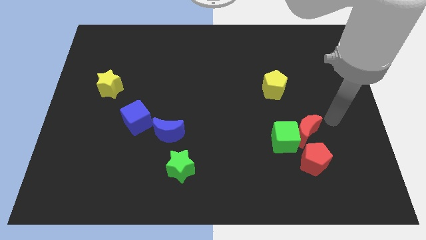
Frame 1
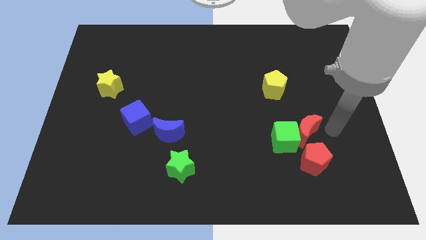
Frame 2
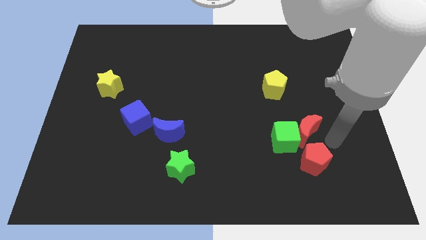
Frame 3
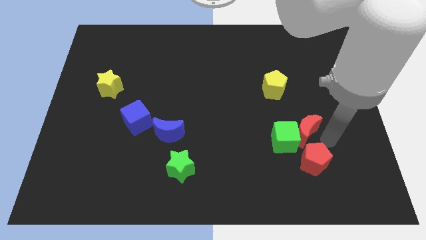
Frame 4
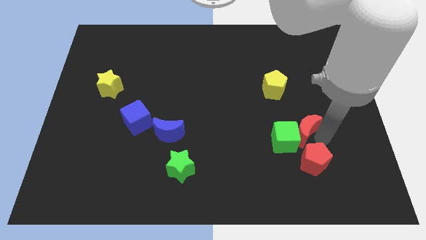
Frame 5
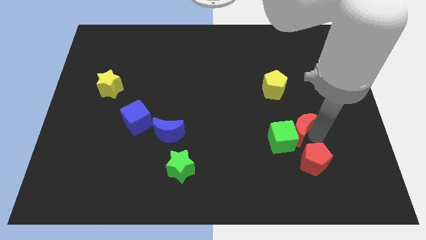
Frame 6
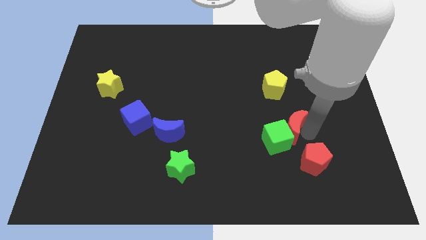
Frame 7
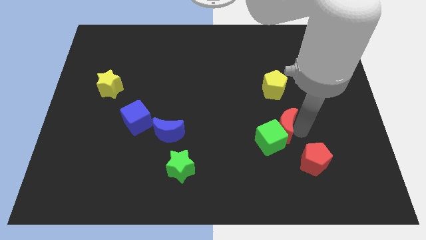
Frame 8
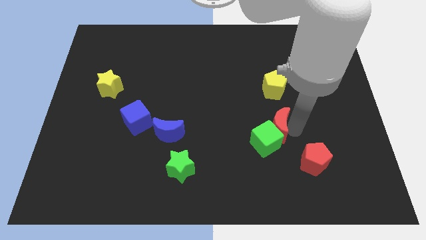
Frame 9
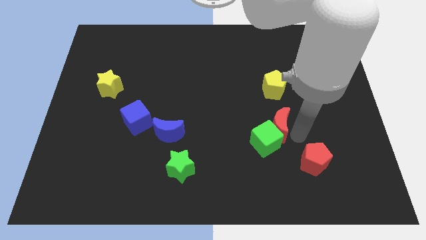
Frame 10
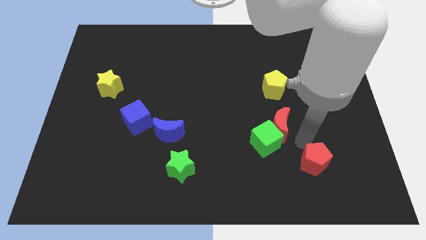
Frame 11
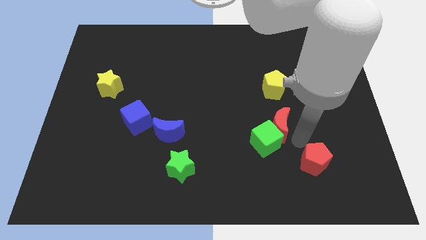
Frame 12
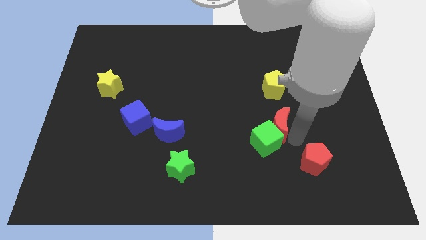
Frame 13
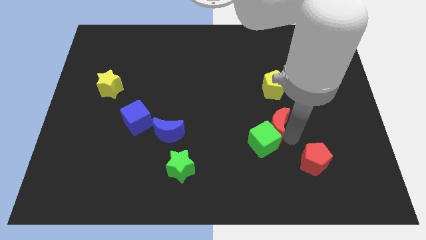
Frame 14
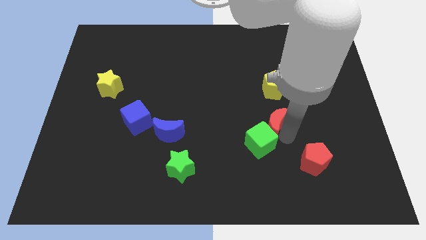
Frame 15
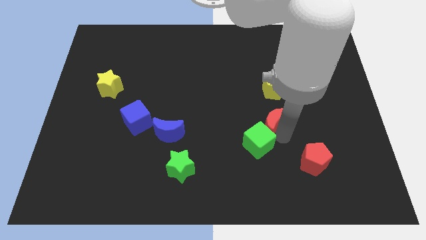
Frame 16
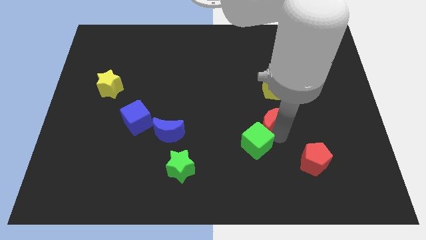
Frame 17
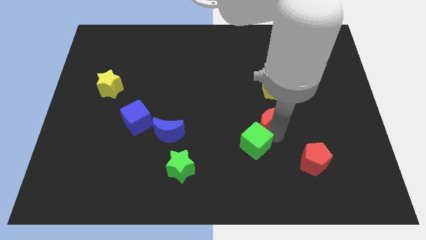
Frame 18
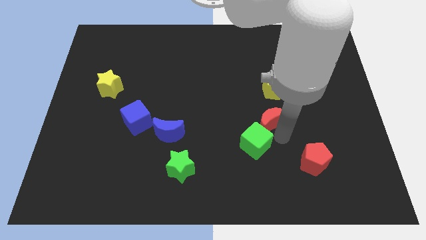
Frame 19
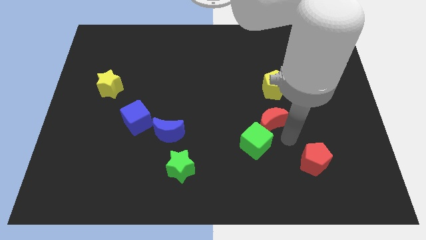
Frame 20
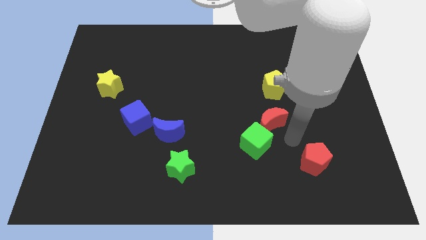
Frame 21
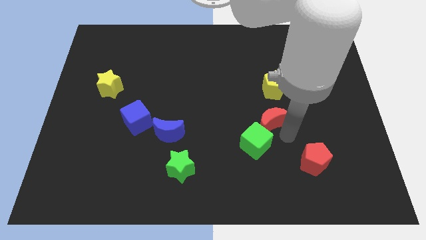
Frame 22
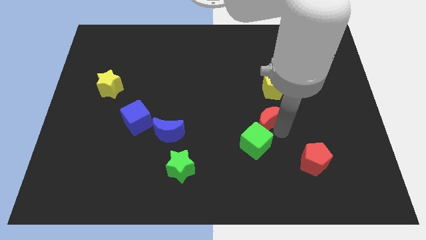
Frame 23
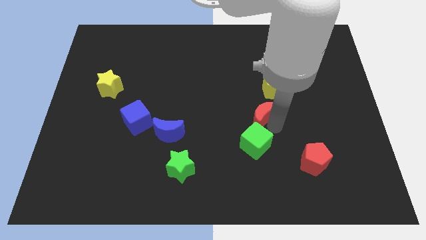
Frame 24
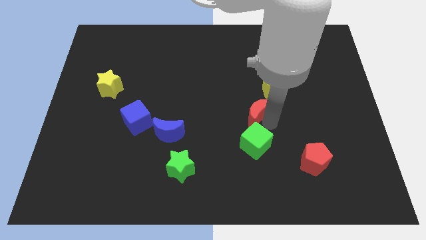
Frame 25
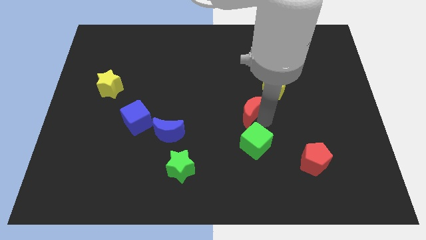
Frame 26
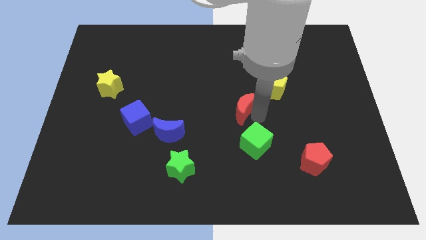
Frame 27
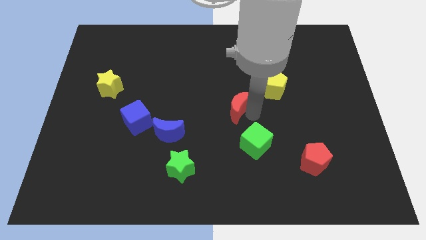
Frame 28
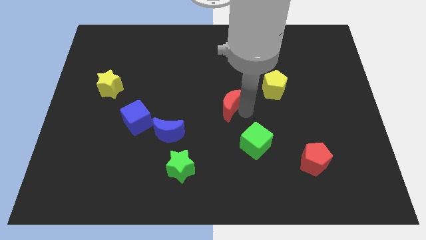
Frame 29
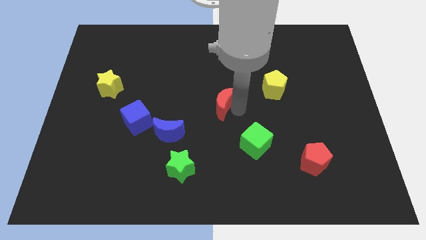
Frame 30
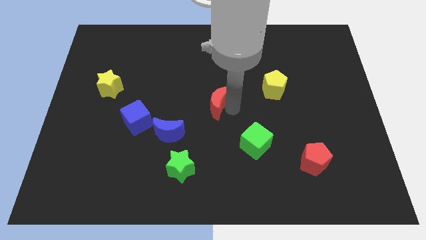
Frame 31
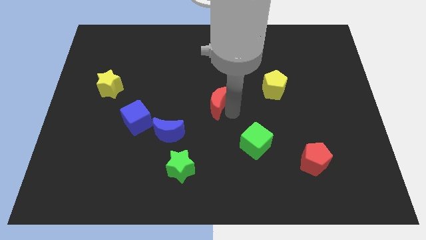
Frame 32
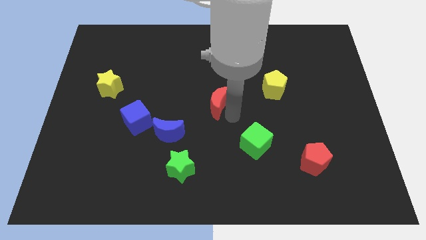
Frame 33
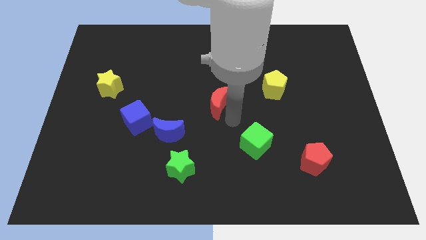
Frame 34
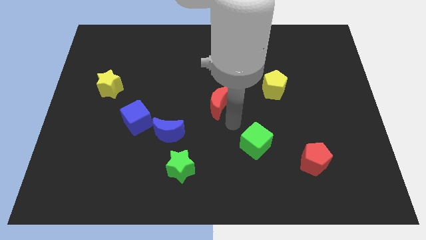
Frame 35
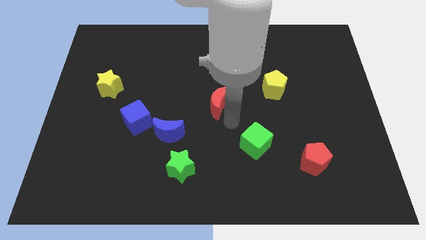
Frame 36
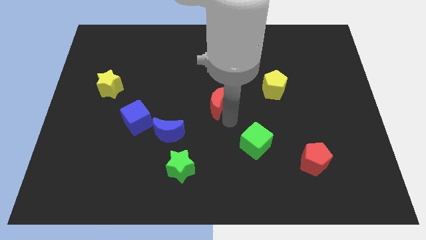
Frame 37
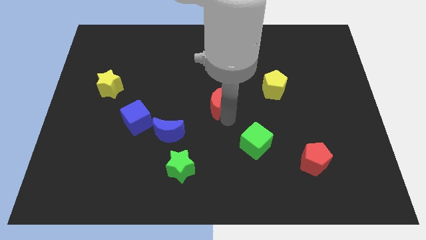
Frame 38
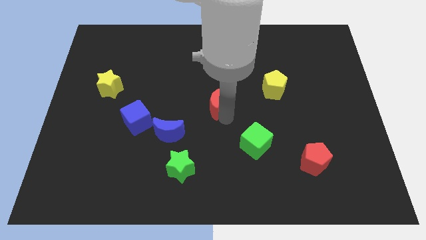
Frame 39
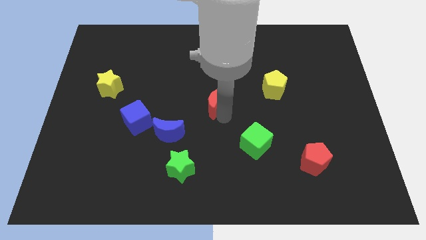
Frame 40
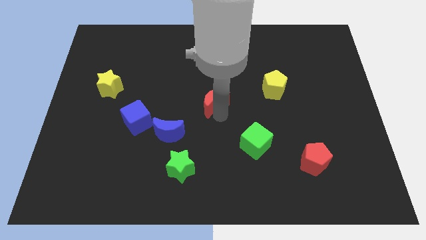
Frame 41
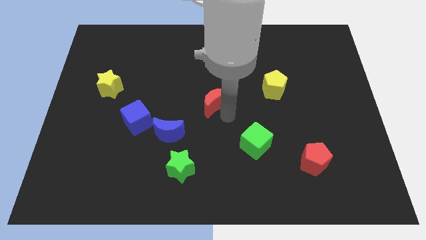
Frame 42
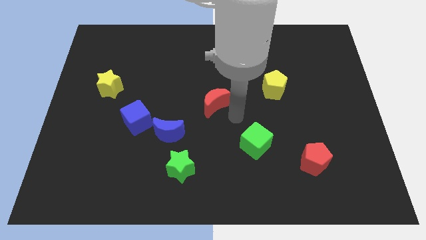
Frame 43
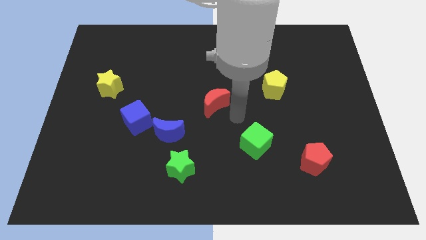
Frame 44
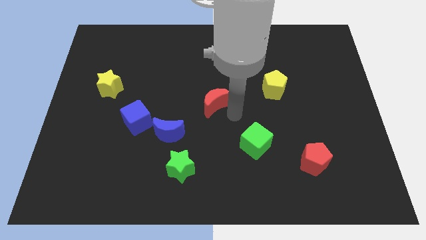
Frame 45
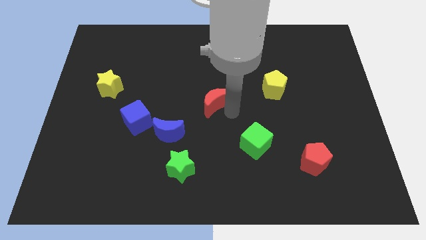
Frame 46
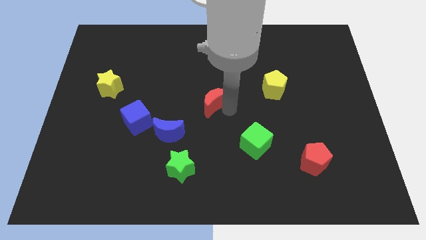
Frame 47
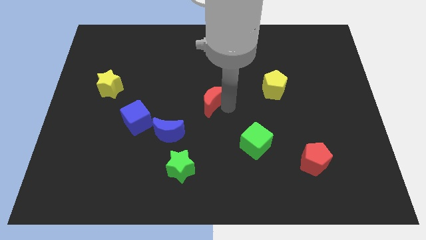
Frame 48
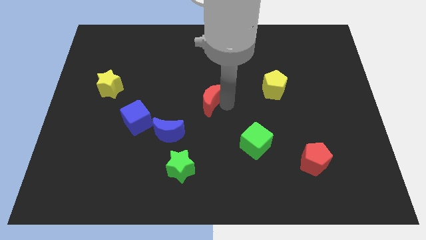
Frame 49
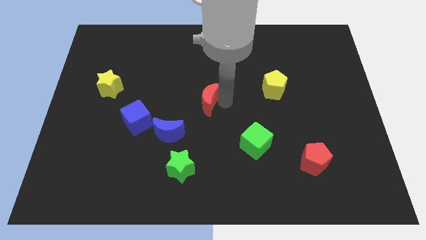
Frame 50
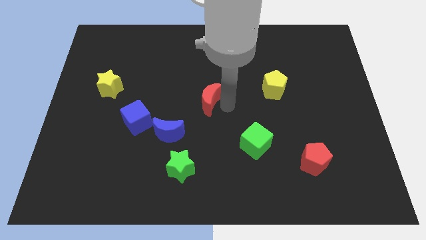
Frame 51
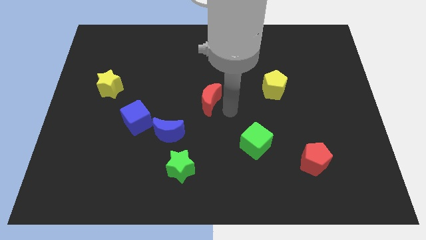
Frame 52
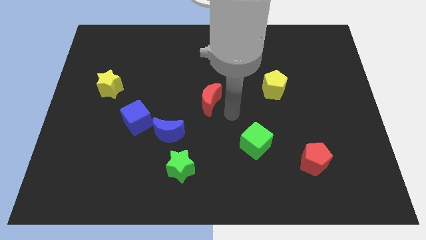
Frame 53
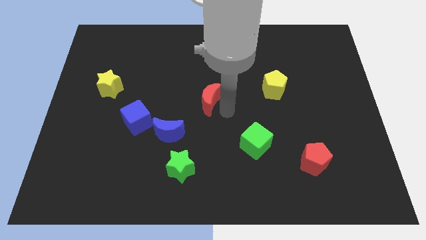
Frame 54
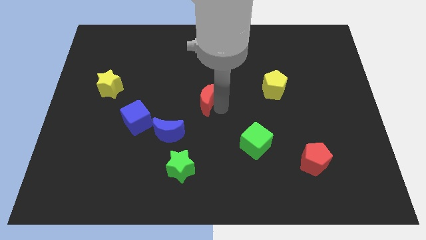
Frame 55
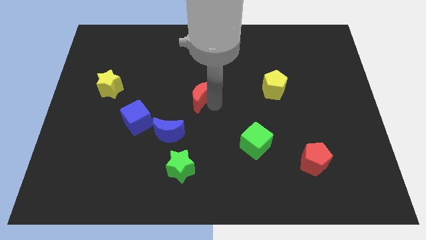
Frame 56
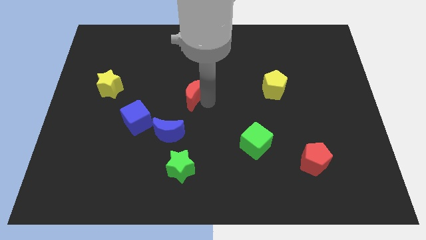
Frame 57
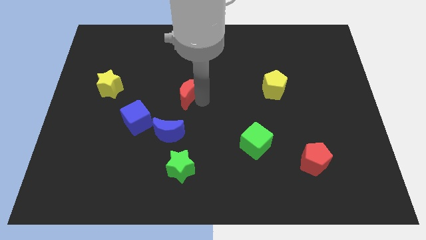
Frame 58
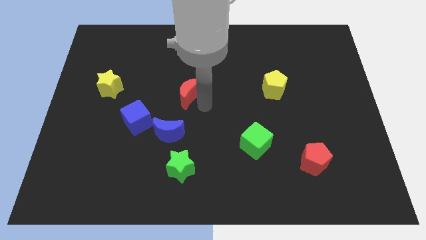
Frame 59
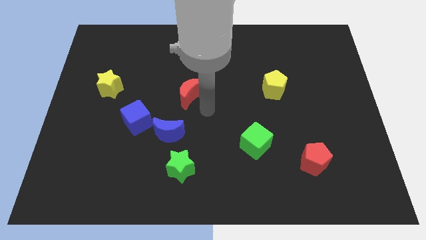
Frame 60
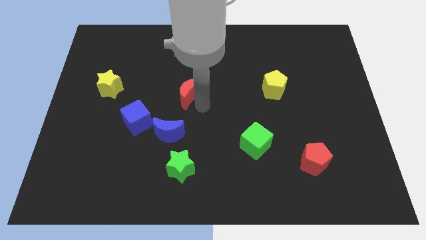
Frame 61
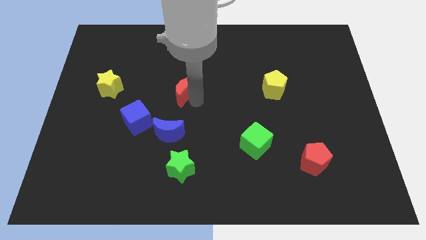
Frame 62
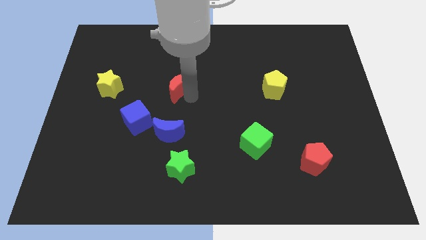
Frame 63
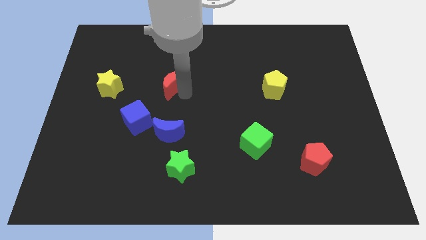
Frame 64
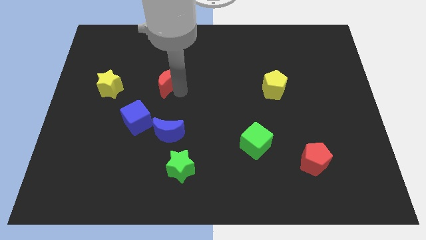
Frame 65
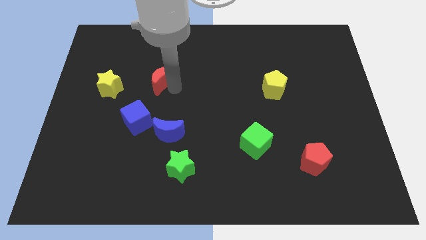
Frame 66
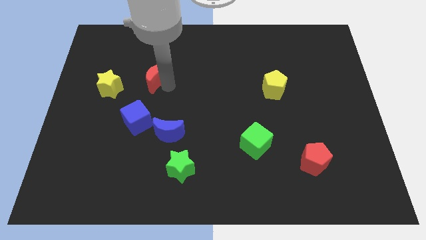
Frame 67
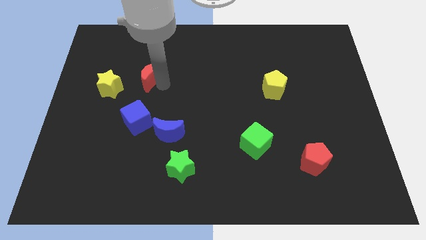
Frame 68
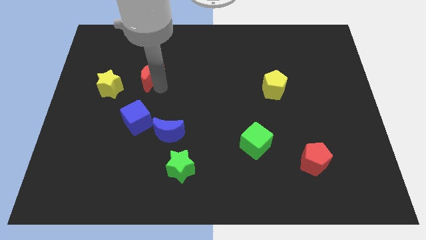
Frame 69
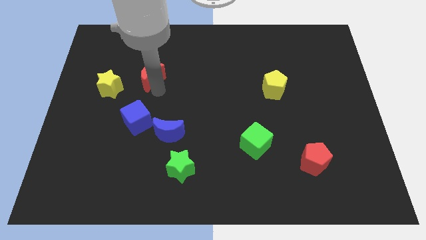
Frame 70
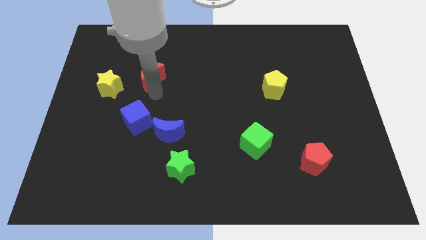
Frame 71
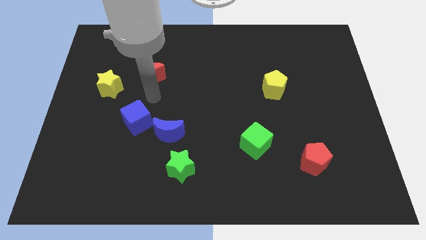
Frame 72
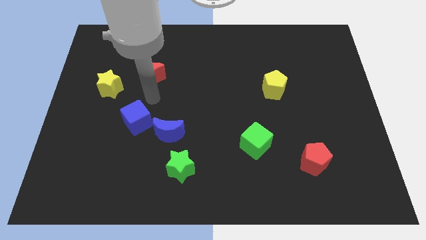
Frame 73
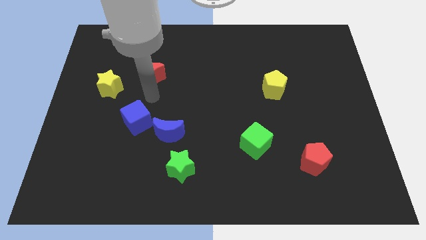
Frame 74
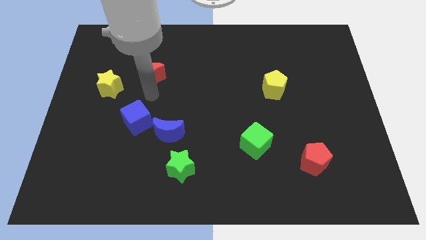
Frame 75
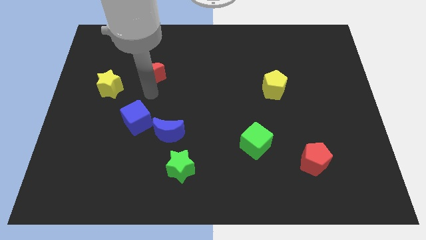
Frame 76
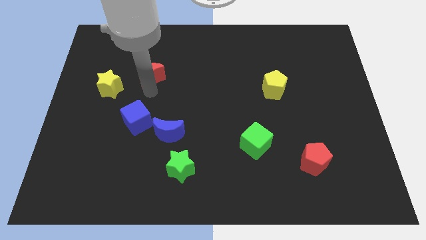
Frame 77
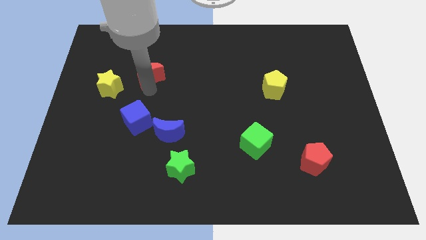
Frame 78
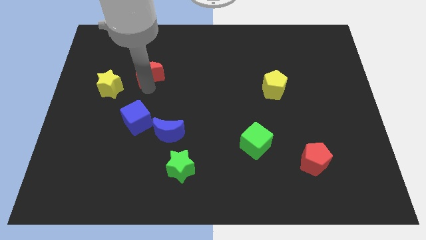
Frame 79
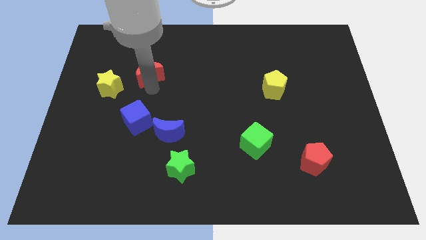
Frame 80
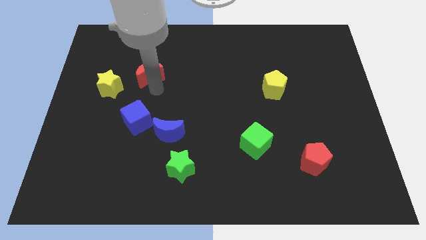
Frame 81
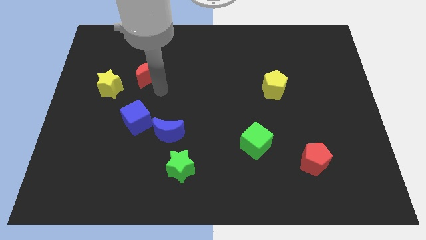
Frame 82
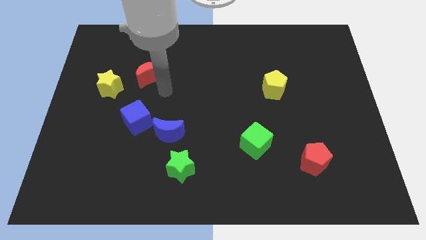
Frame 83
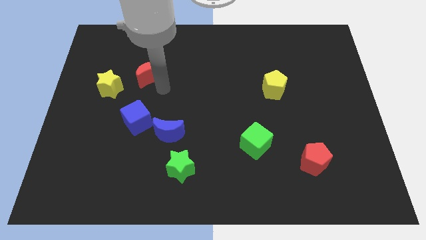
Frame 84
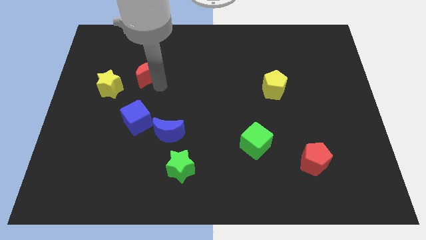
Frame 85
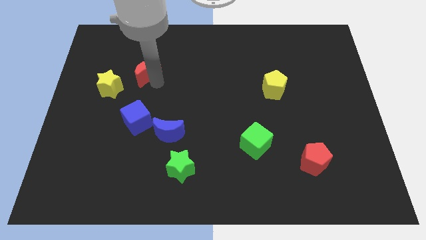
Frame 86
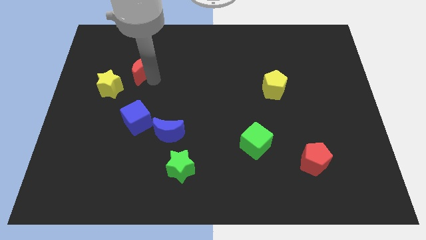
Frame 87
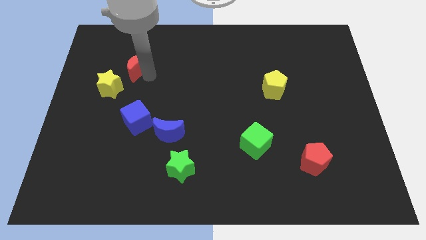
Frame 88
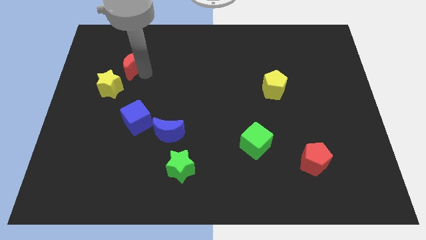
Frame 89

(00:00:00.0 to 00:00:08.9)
slide the red moon above the yellow star
